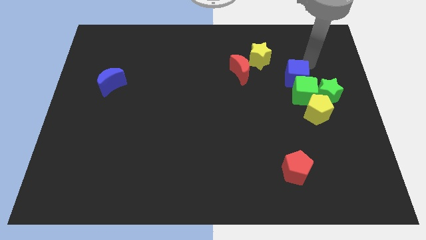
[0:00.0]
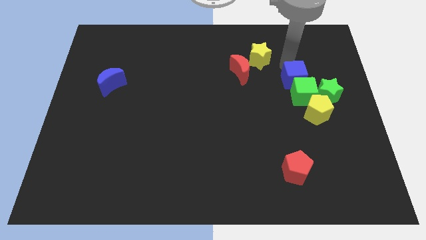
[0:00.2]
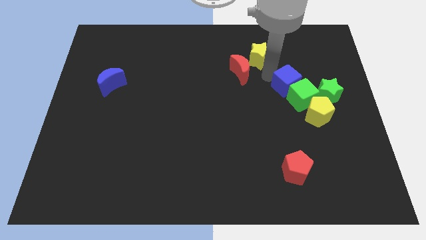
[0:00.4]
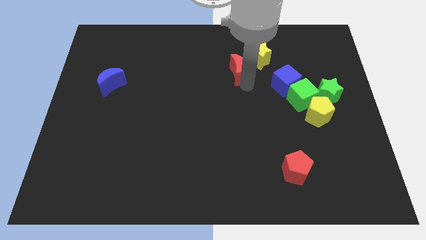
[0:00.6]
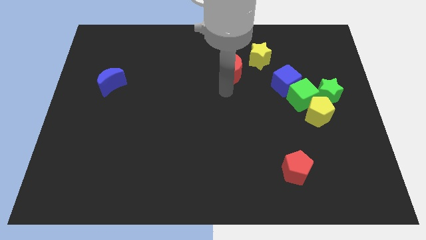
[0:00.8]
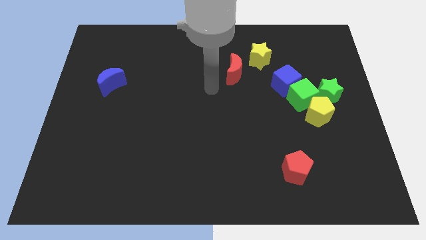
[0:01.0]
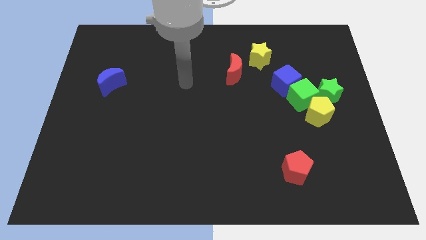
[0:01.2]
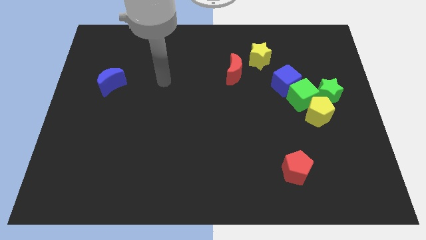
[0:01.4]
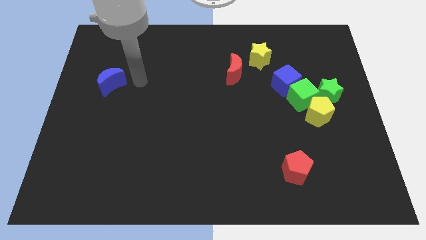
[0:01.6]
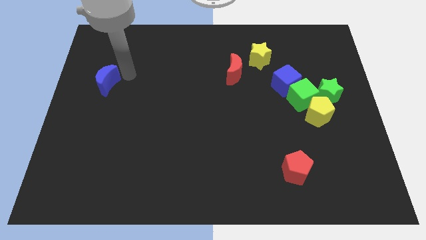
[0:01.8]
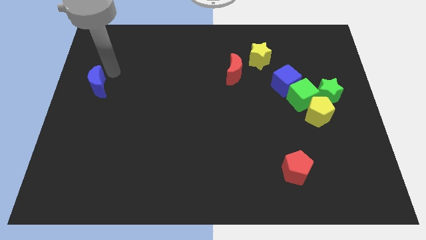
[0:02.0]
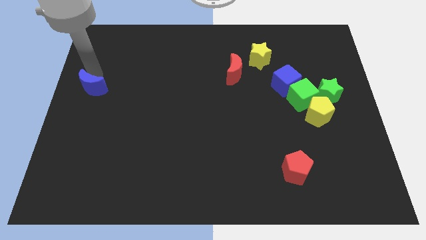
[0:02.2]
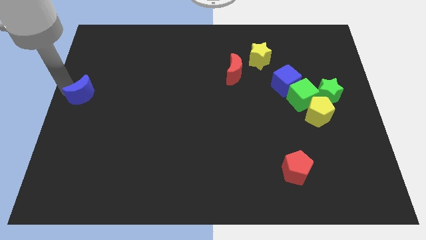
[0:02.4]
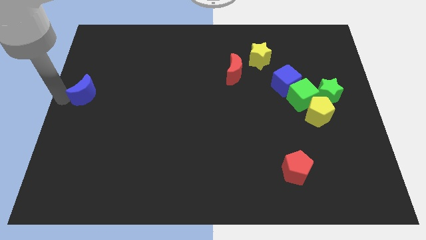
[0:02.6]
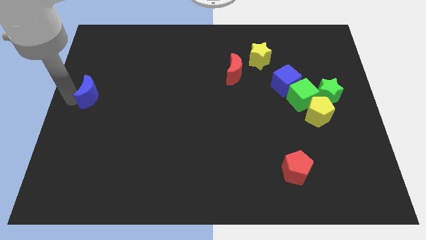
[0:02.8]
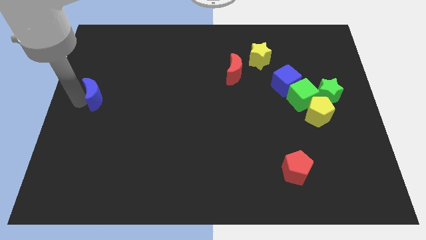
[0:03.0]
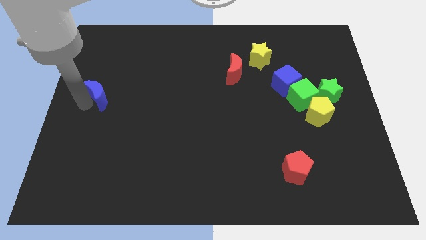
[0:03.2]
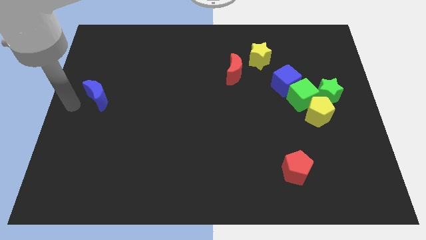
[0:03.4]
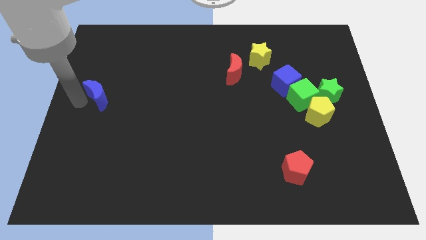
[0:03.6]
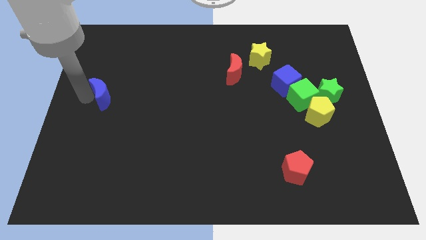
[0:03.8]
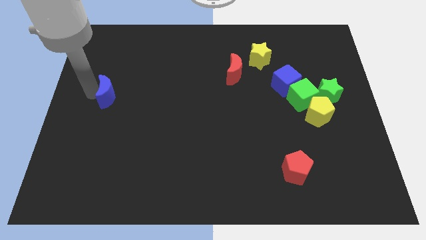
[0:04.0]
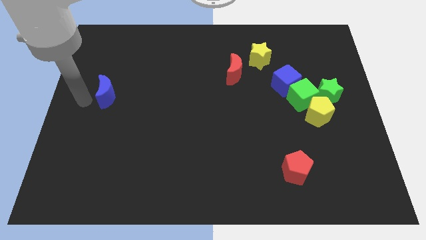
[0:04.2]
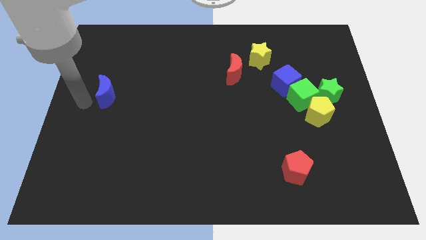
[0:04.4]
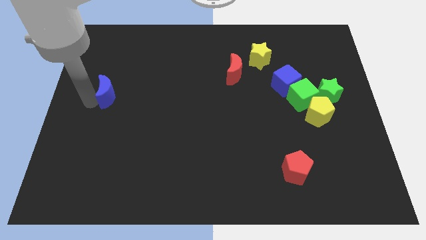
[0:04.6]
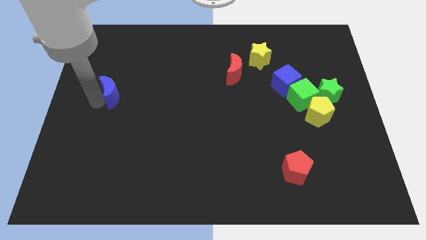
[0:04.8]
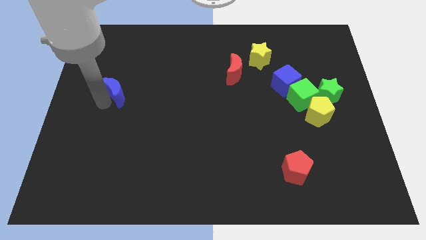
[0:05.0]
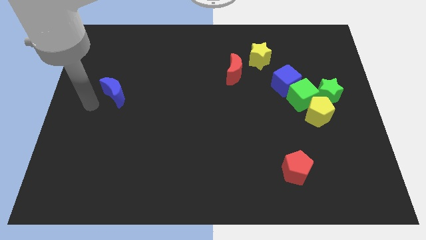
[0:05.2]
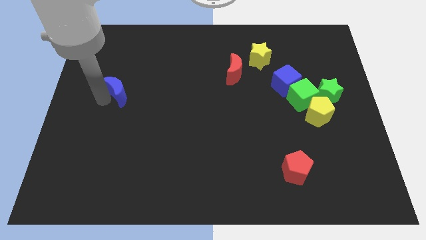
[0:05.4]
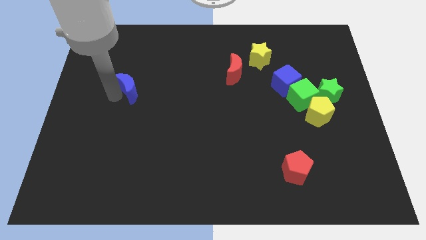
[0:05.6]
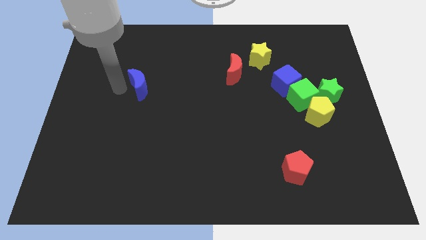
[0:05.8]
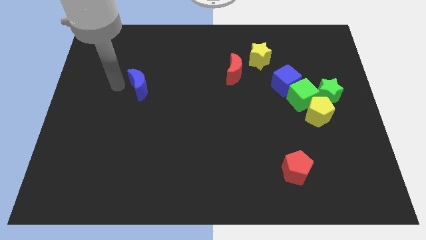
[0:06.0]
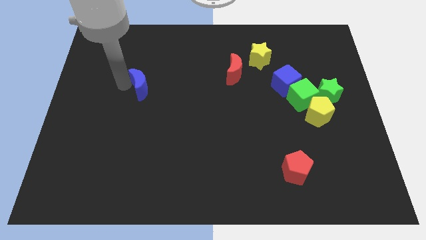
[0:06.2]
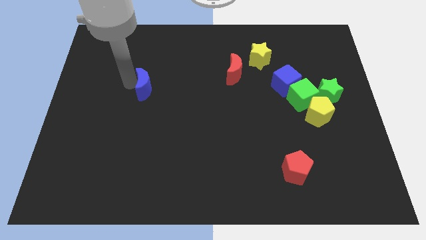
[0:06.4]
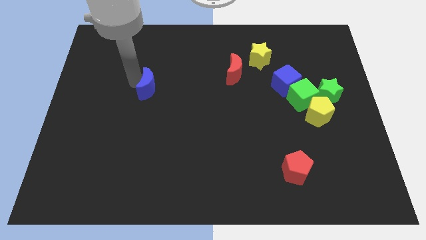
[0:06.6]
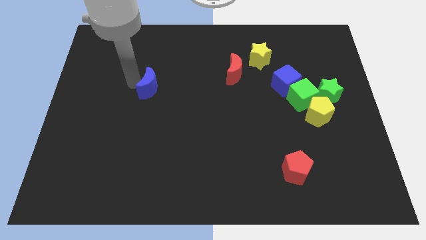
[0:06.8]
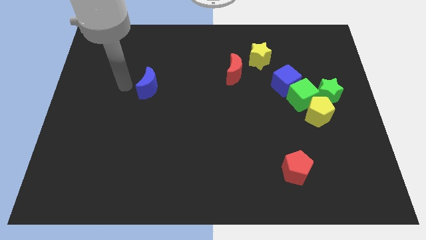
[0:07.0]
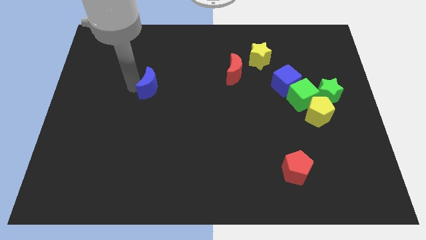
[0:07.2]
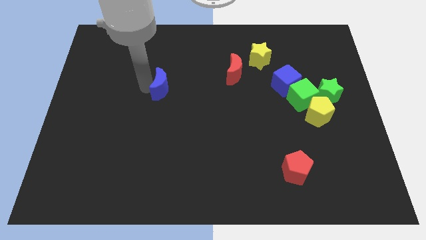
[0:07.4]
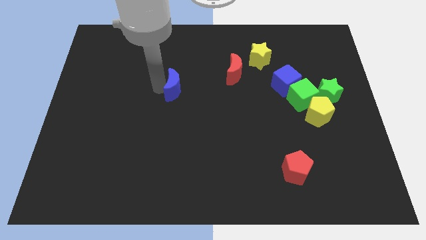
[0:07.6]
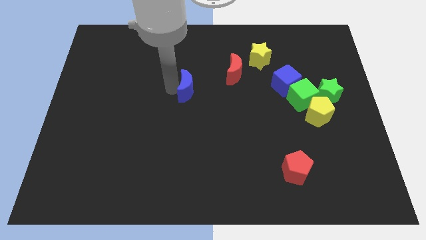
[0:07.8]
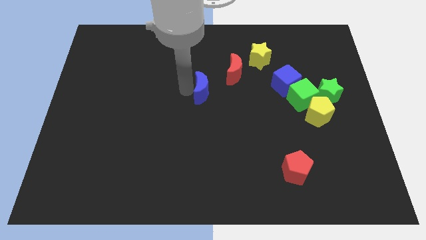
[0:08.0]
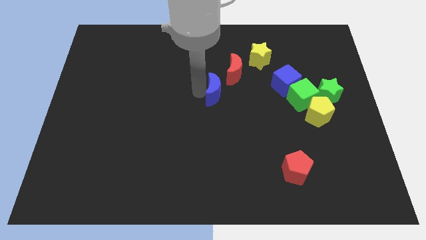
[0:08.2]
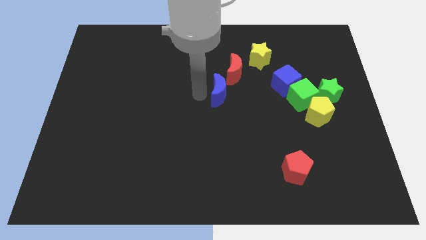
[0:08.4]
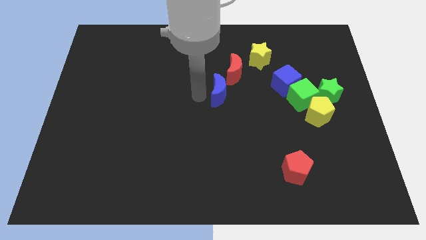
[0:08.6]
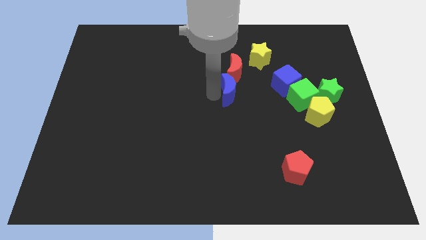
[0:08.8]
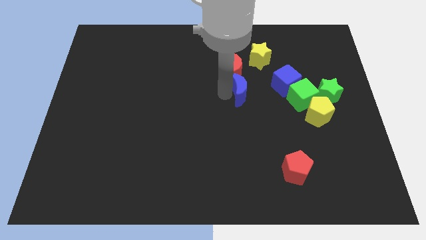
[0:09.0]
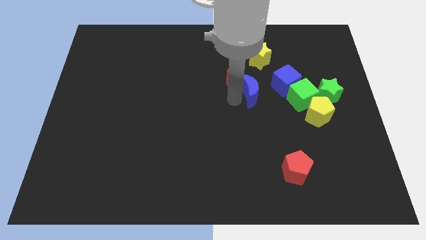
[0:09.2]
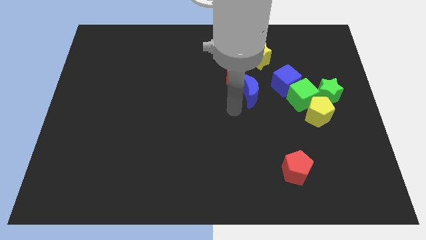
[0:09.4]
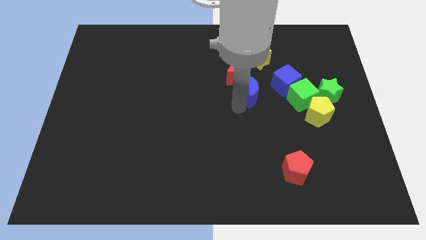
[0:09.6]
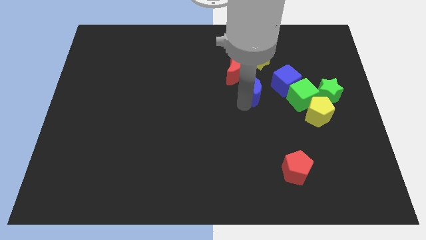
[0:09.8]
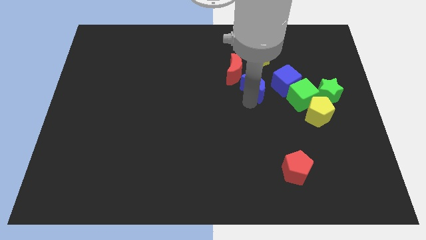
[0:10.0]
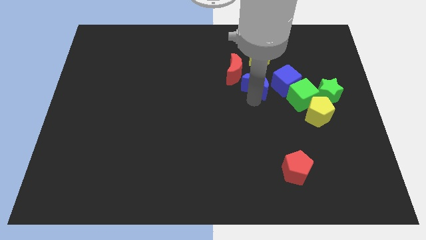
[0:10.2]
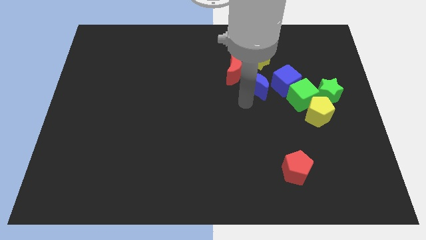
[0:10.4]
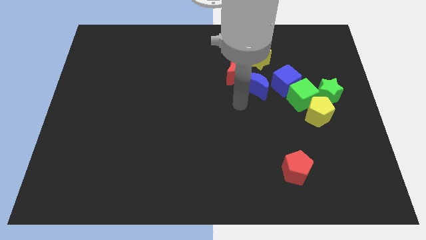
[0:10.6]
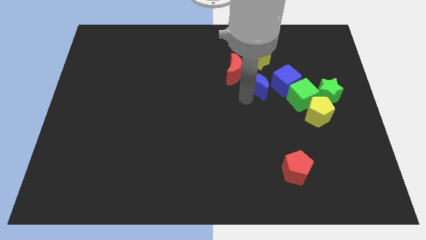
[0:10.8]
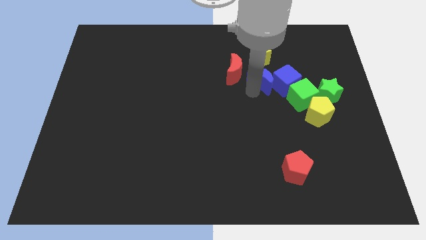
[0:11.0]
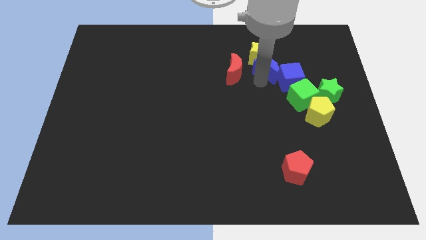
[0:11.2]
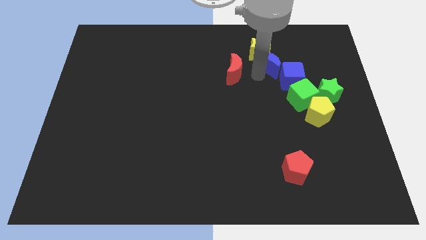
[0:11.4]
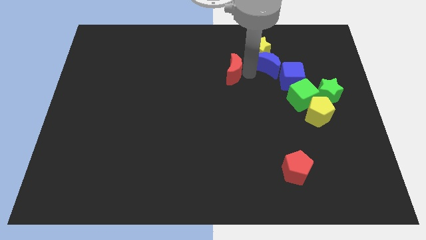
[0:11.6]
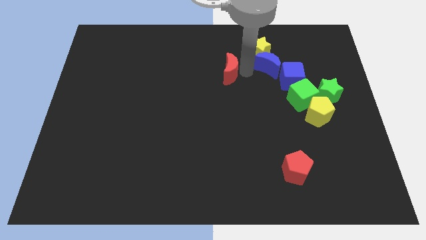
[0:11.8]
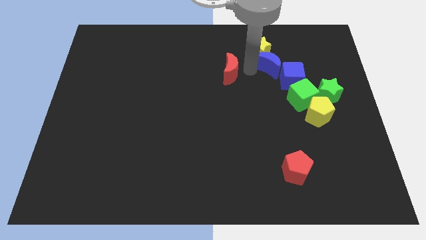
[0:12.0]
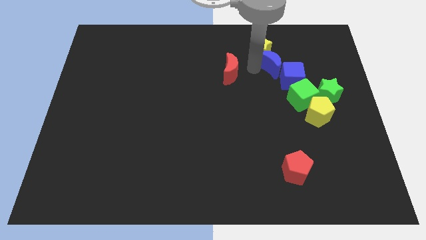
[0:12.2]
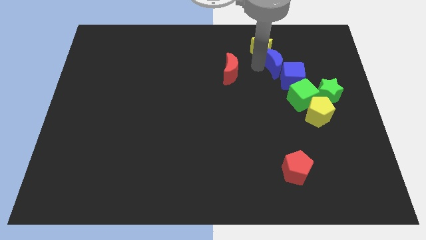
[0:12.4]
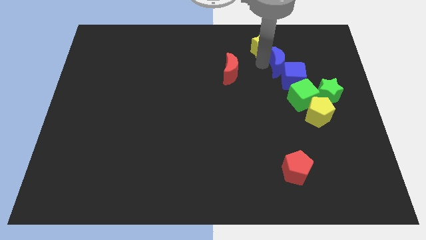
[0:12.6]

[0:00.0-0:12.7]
slide the blue moon above the green cube
